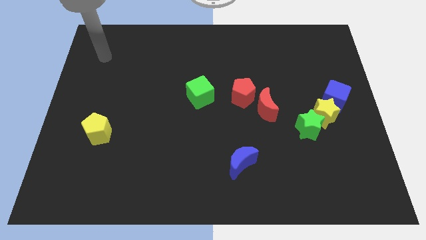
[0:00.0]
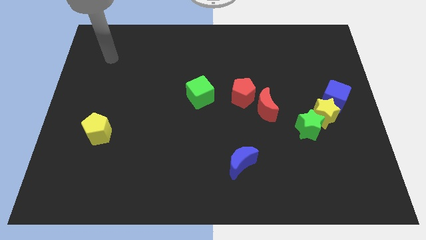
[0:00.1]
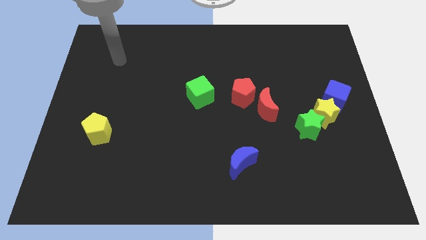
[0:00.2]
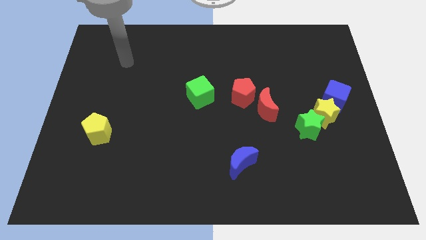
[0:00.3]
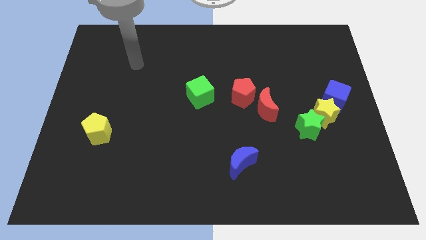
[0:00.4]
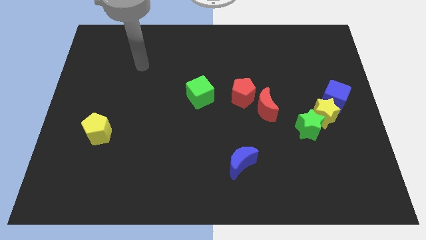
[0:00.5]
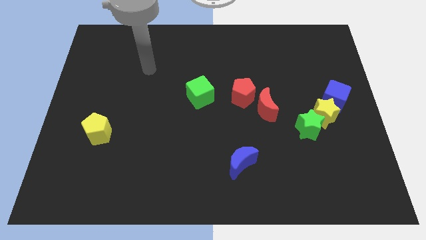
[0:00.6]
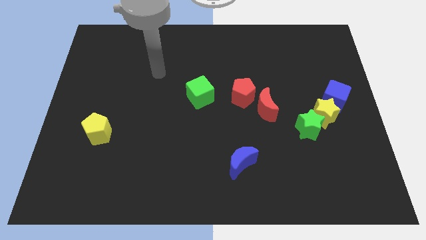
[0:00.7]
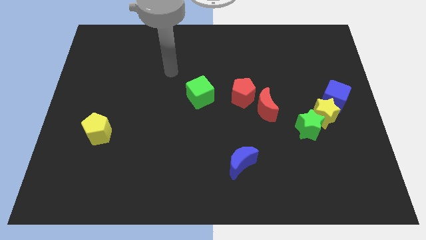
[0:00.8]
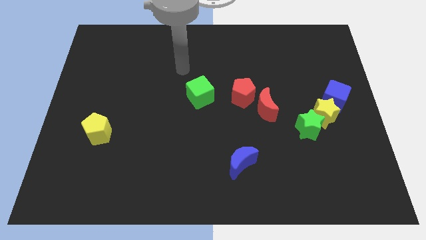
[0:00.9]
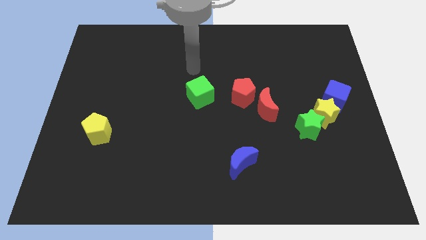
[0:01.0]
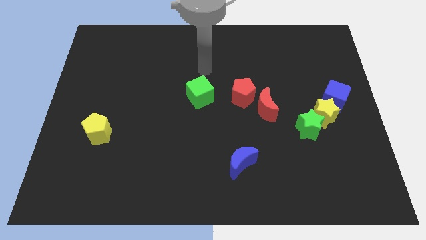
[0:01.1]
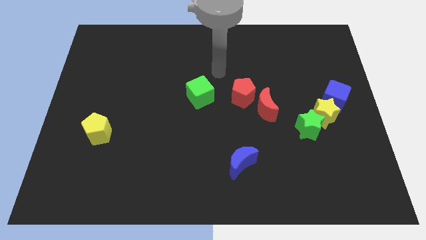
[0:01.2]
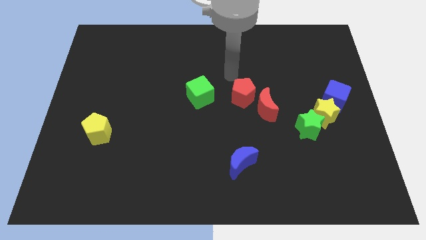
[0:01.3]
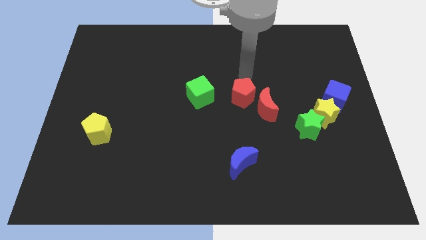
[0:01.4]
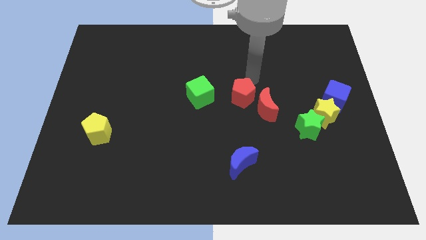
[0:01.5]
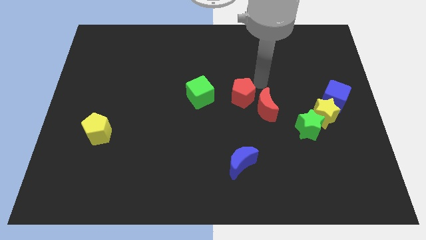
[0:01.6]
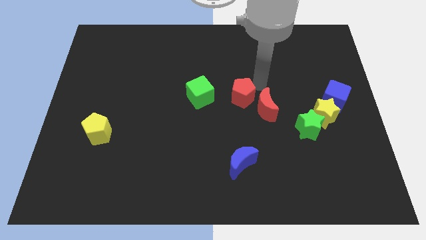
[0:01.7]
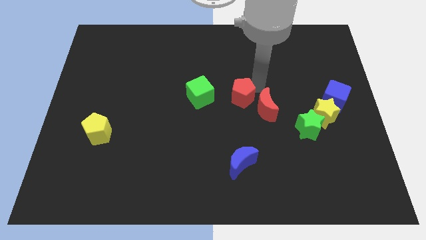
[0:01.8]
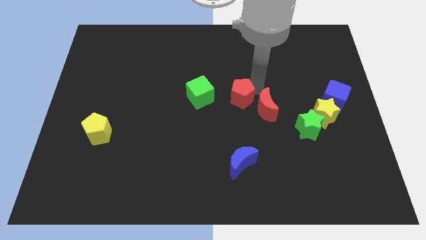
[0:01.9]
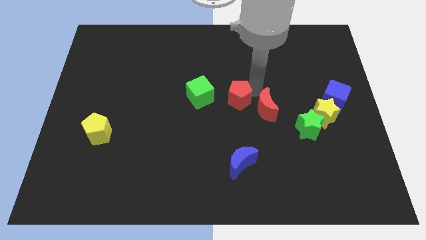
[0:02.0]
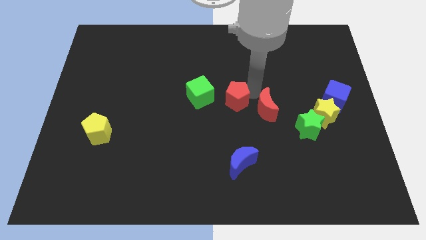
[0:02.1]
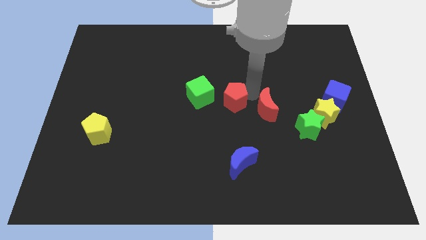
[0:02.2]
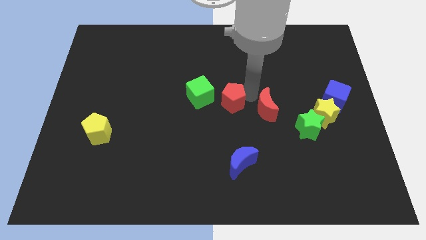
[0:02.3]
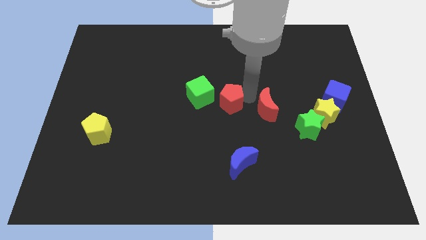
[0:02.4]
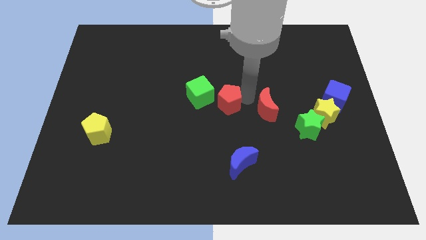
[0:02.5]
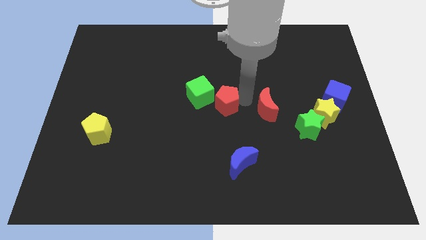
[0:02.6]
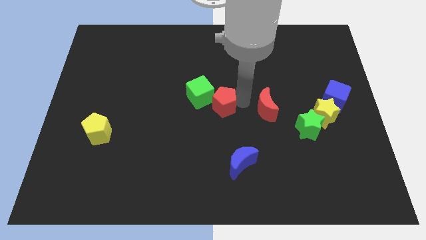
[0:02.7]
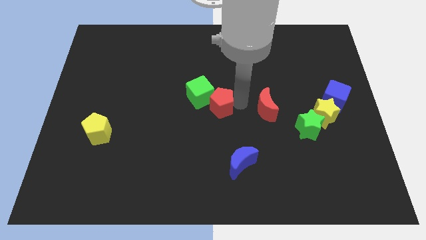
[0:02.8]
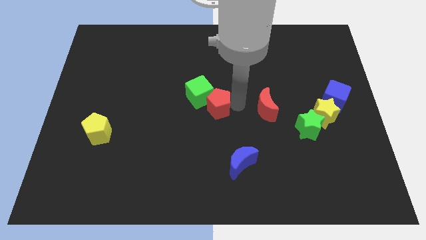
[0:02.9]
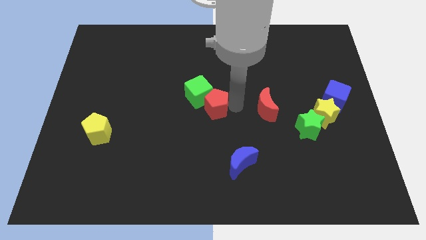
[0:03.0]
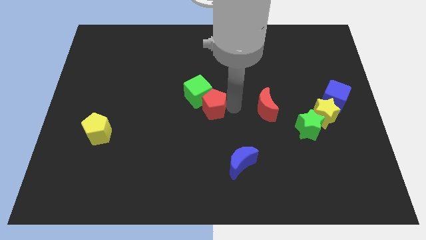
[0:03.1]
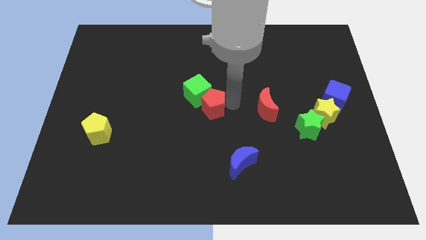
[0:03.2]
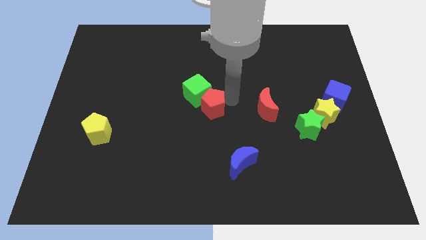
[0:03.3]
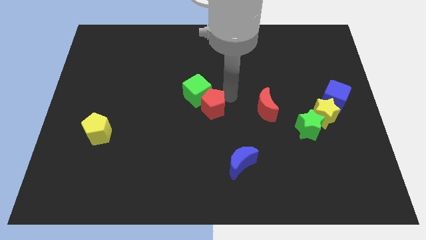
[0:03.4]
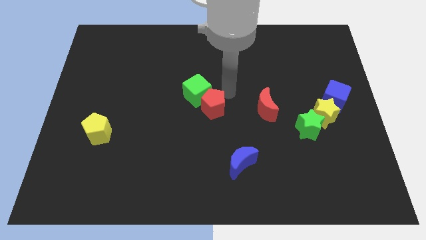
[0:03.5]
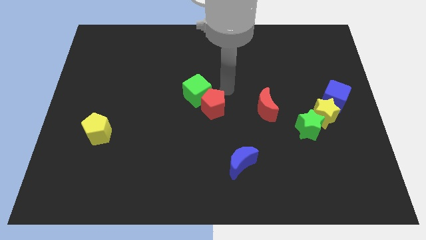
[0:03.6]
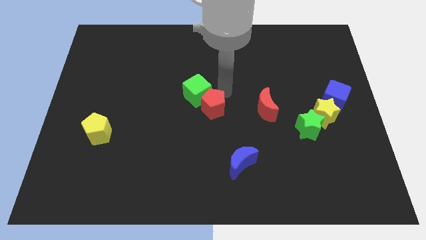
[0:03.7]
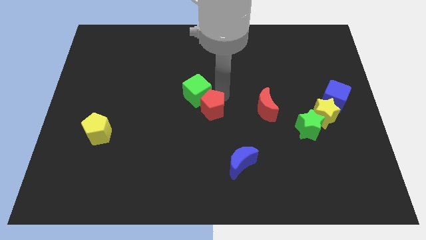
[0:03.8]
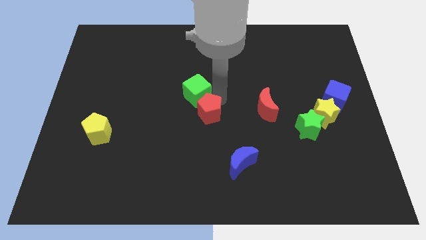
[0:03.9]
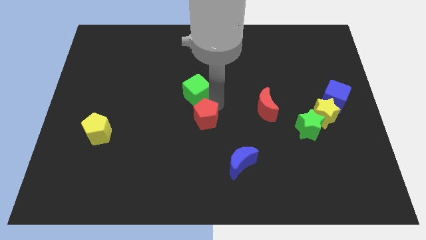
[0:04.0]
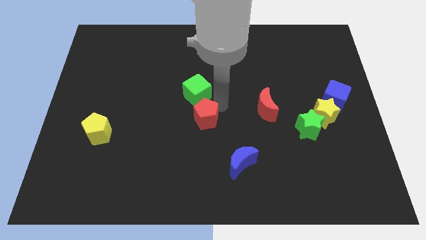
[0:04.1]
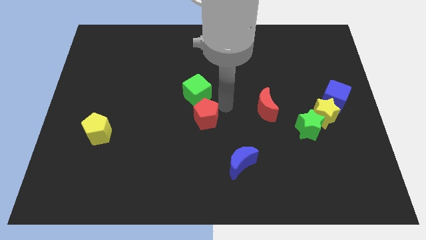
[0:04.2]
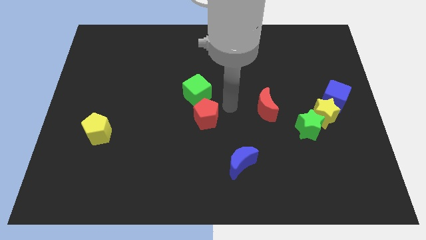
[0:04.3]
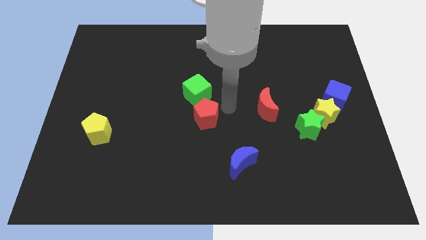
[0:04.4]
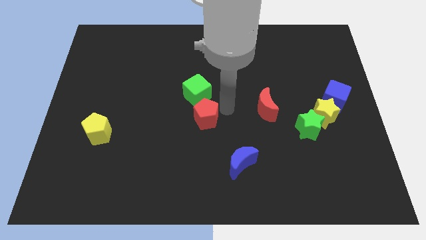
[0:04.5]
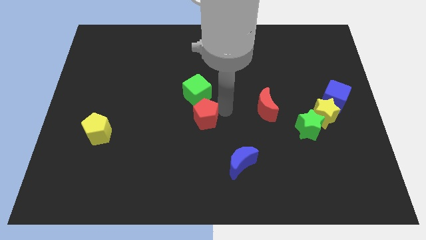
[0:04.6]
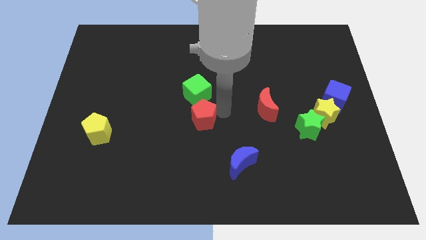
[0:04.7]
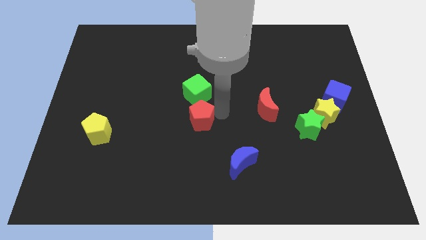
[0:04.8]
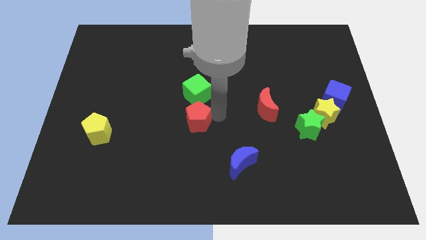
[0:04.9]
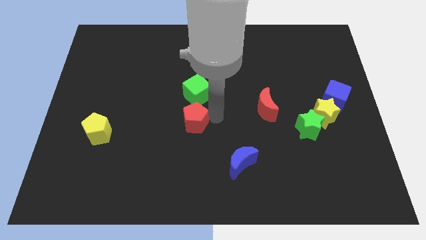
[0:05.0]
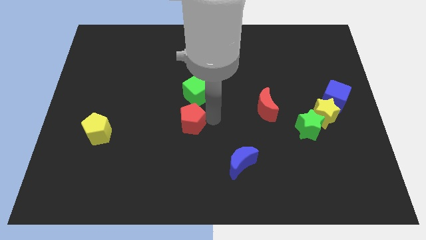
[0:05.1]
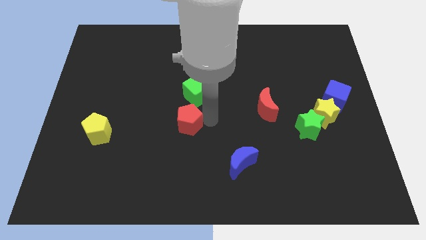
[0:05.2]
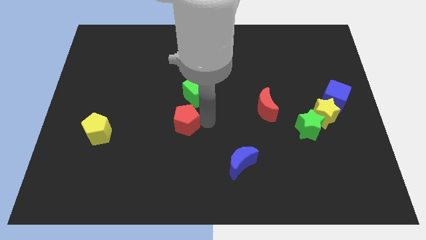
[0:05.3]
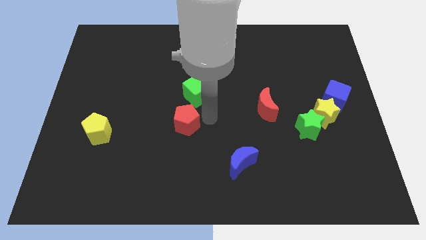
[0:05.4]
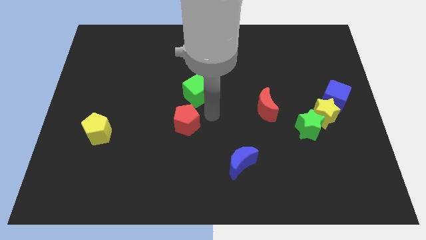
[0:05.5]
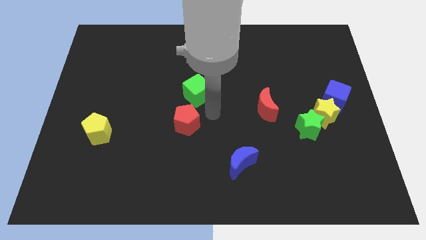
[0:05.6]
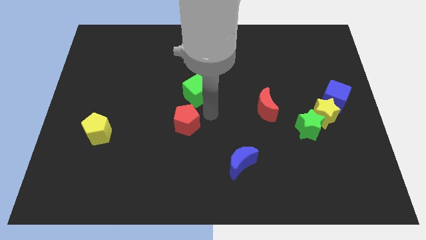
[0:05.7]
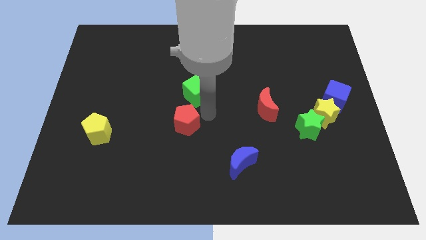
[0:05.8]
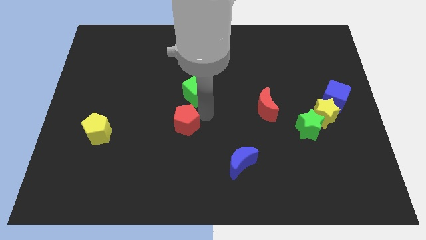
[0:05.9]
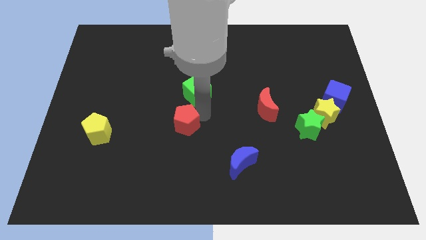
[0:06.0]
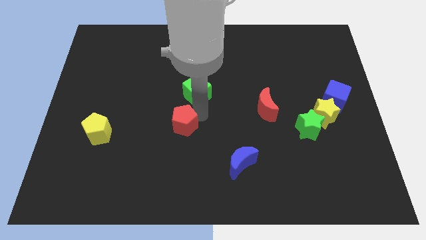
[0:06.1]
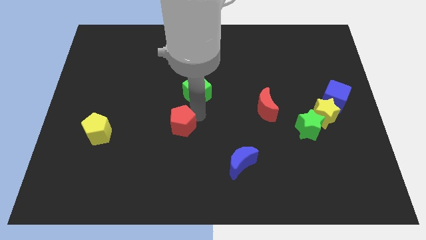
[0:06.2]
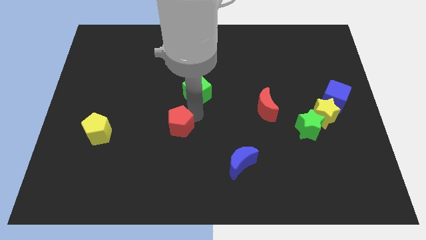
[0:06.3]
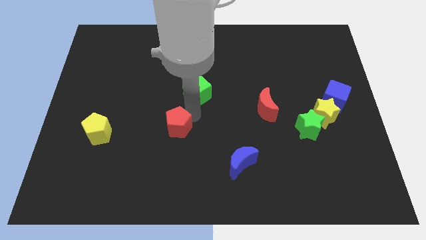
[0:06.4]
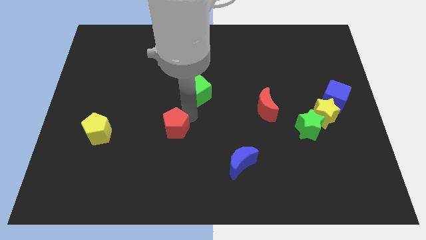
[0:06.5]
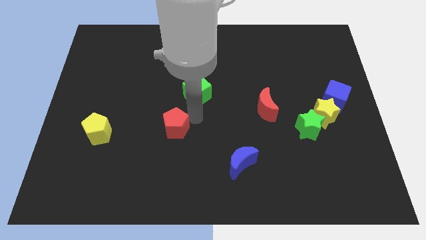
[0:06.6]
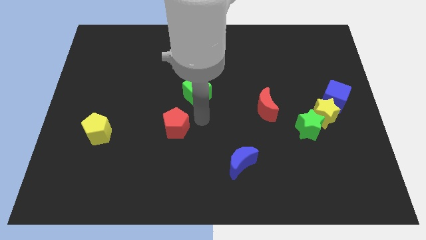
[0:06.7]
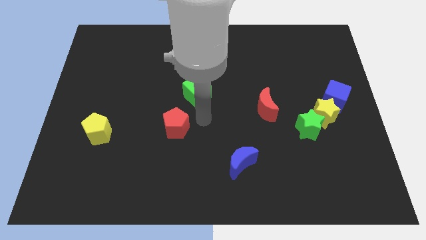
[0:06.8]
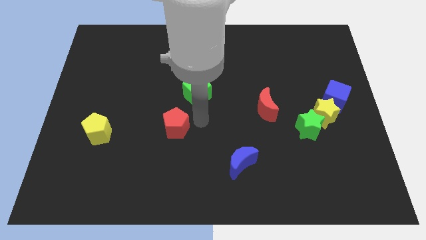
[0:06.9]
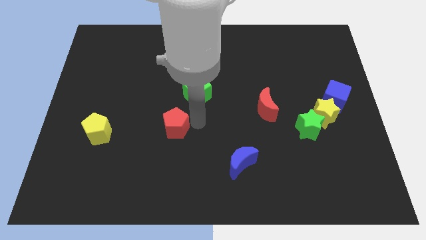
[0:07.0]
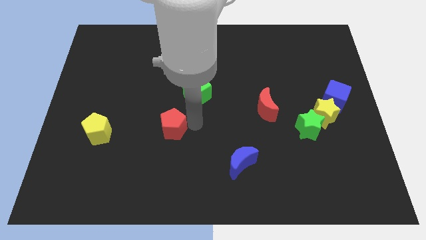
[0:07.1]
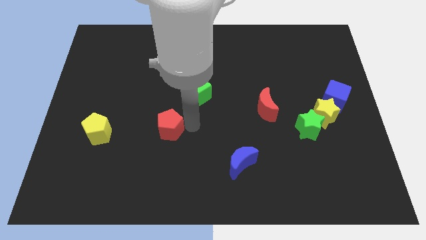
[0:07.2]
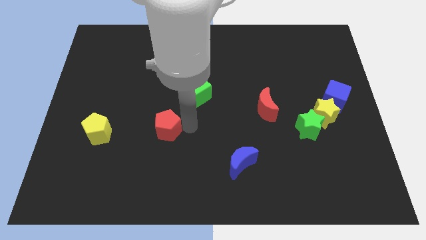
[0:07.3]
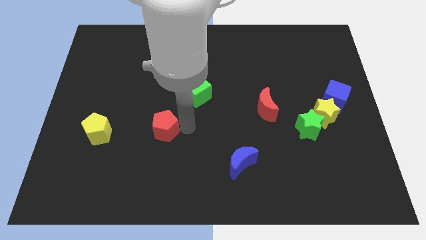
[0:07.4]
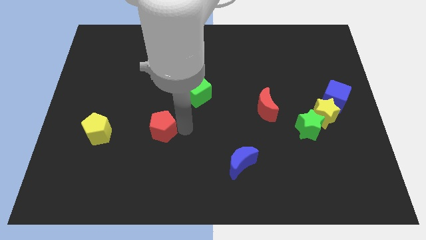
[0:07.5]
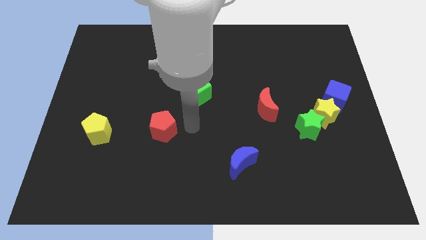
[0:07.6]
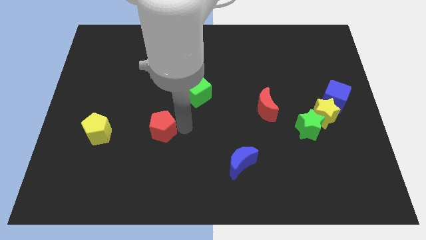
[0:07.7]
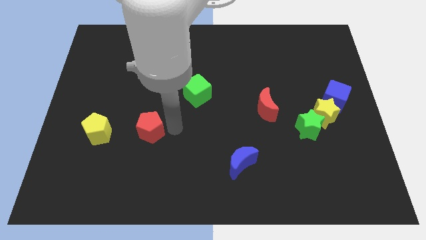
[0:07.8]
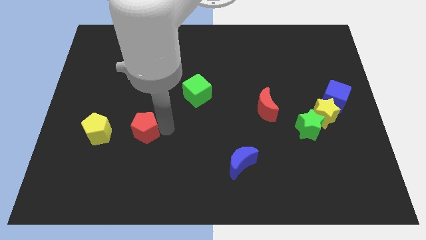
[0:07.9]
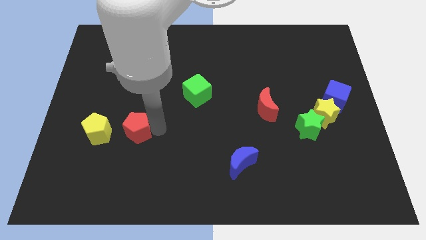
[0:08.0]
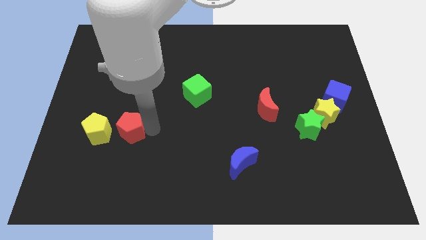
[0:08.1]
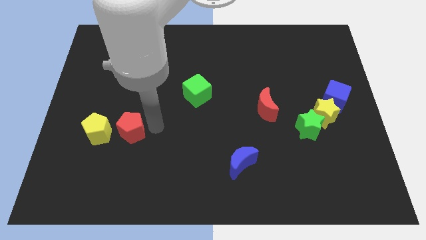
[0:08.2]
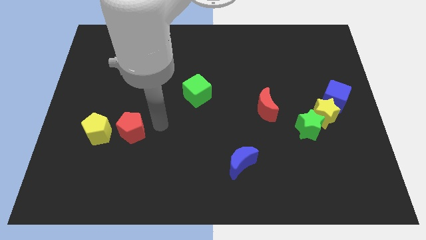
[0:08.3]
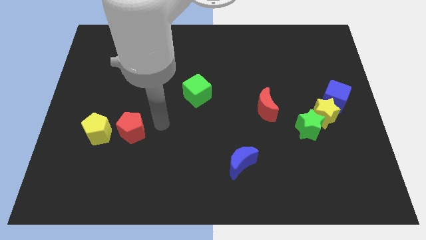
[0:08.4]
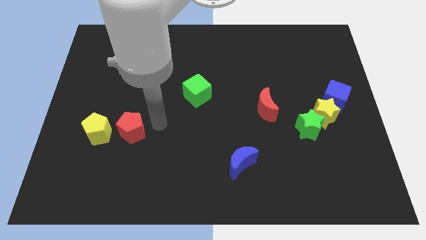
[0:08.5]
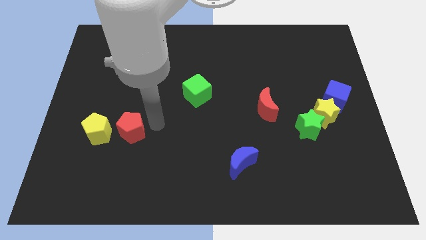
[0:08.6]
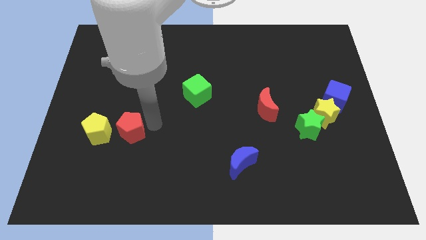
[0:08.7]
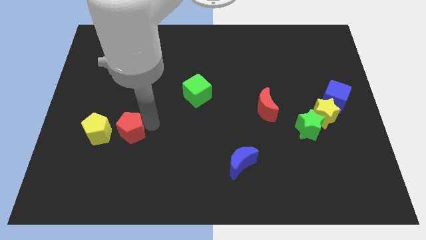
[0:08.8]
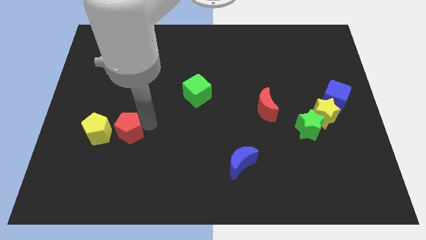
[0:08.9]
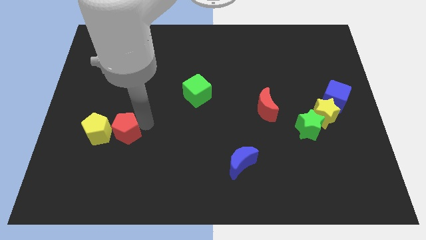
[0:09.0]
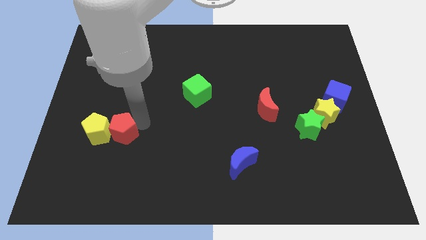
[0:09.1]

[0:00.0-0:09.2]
push the red pentagon close to the yellow pentagon
